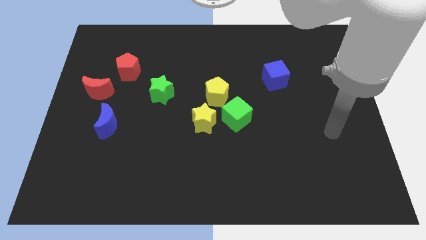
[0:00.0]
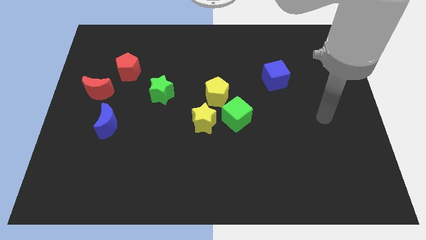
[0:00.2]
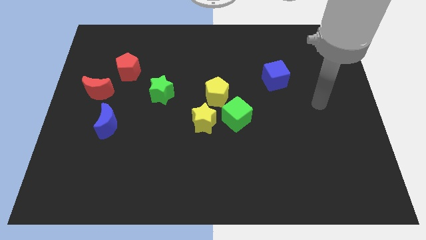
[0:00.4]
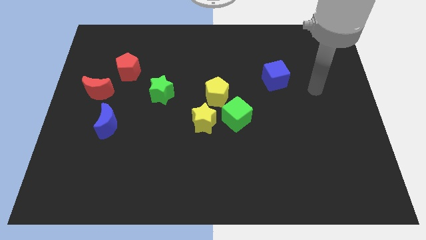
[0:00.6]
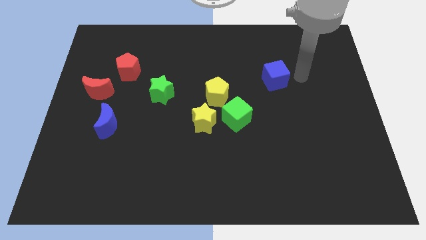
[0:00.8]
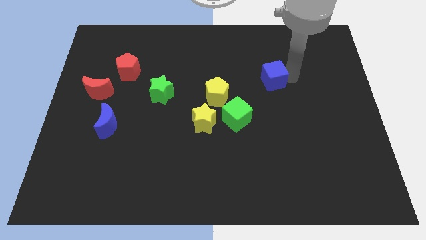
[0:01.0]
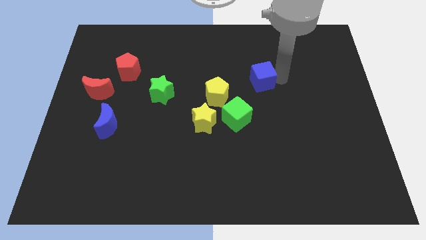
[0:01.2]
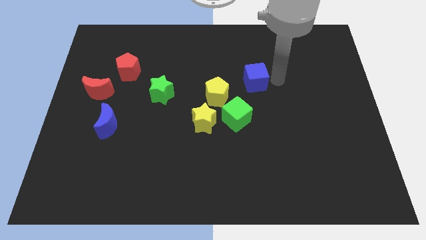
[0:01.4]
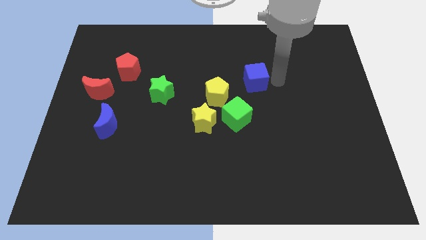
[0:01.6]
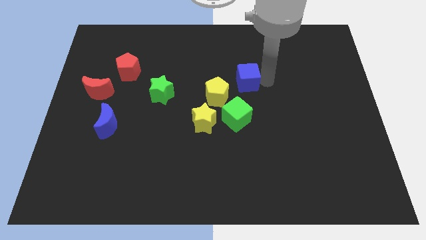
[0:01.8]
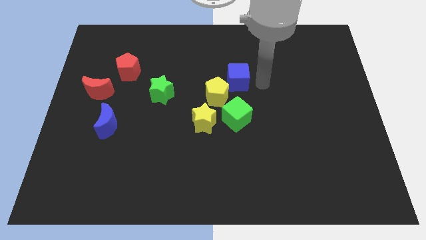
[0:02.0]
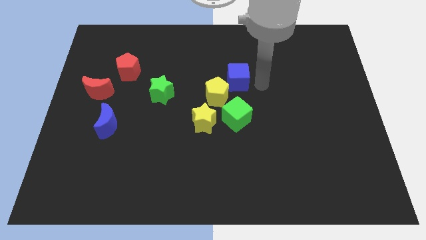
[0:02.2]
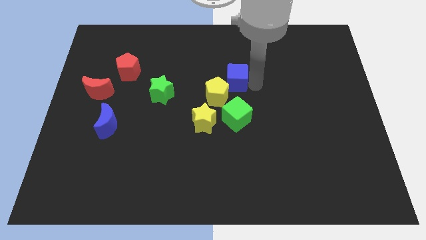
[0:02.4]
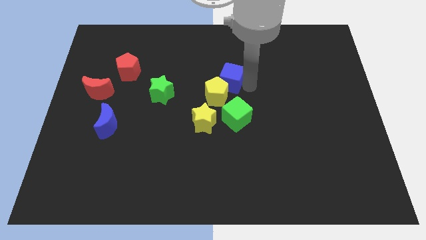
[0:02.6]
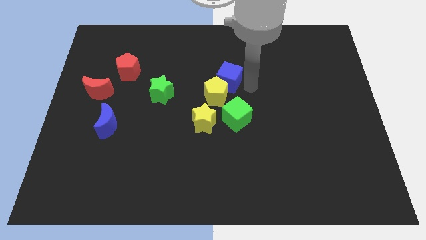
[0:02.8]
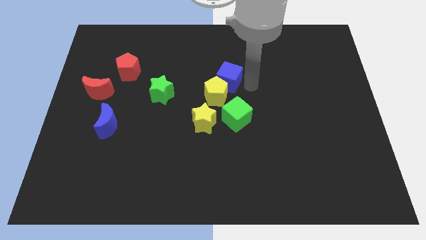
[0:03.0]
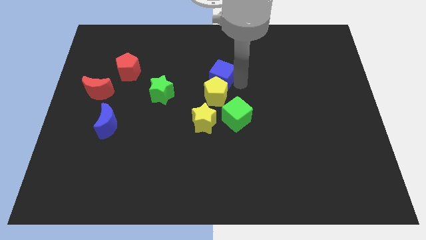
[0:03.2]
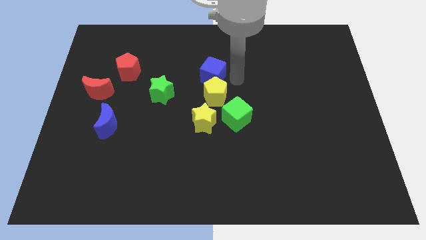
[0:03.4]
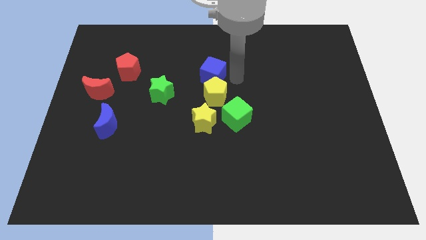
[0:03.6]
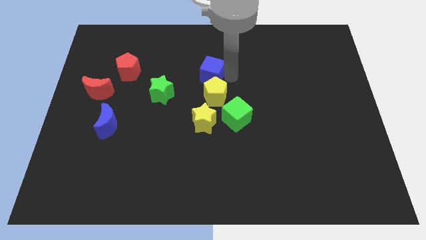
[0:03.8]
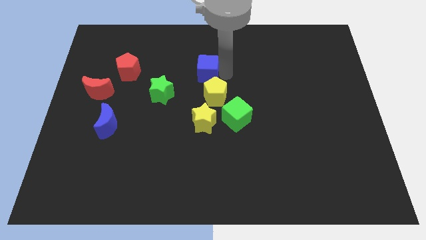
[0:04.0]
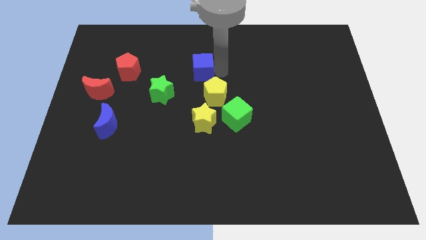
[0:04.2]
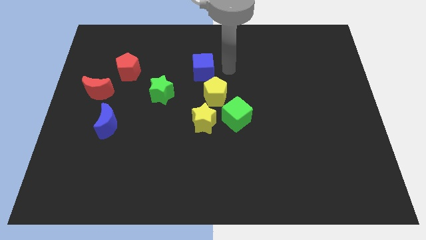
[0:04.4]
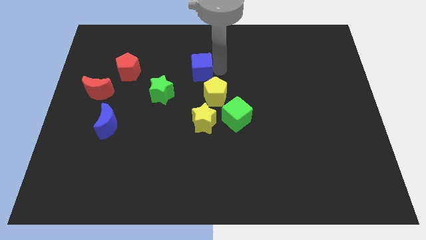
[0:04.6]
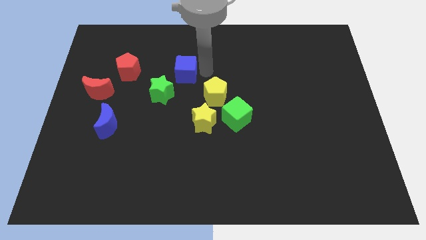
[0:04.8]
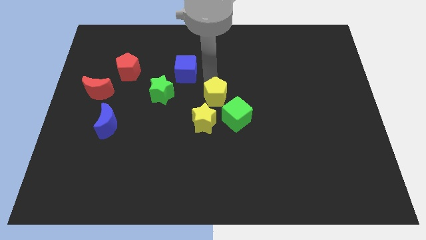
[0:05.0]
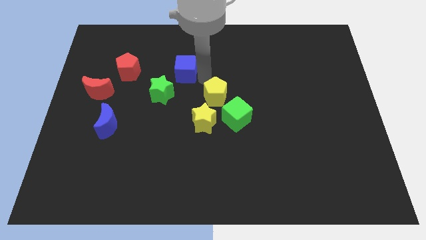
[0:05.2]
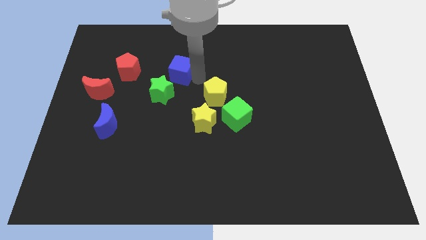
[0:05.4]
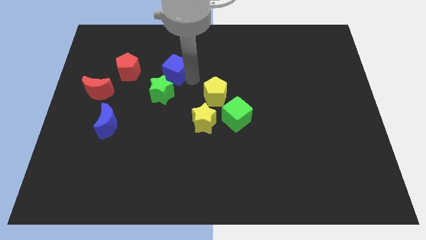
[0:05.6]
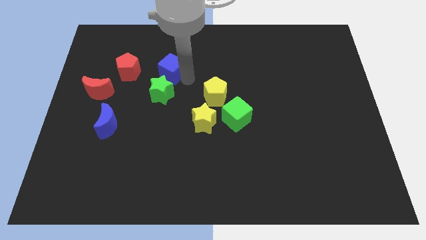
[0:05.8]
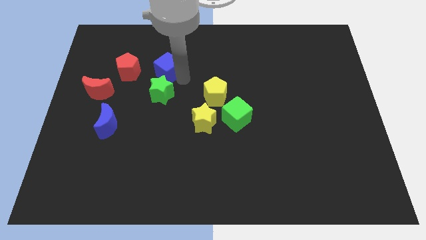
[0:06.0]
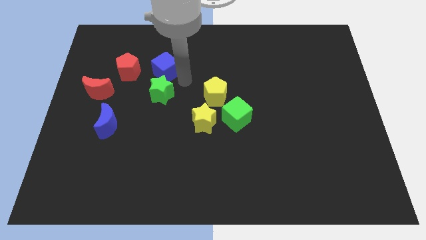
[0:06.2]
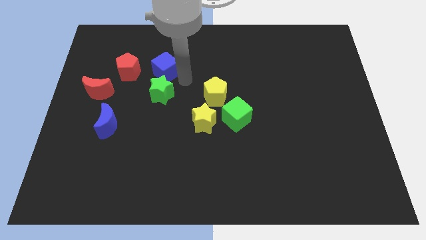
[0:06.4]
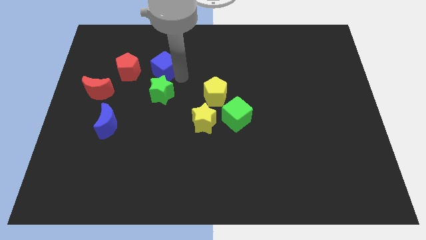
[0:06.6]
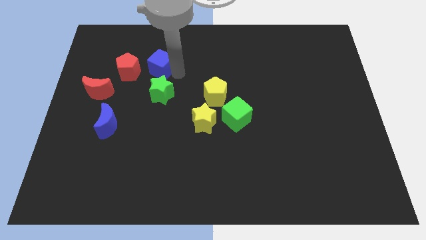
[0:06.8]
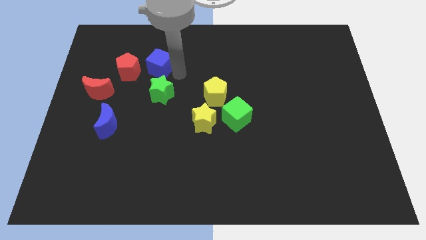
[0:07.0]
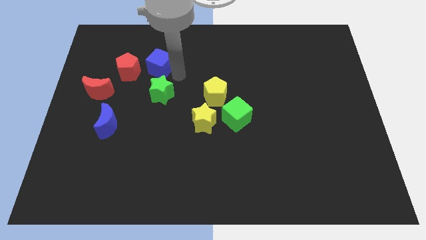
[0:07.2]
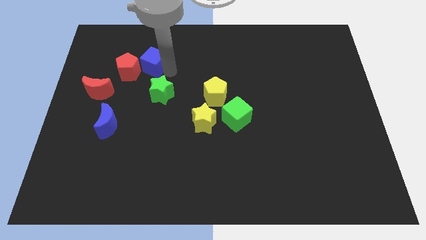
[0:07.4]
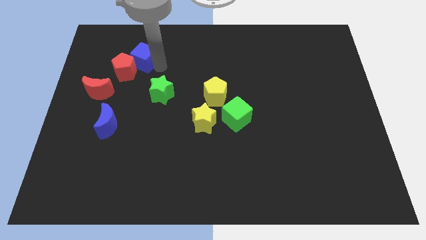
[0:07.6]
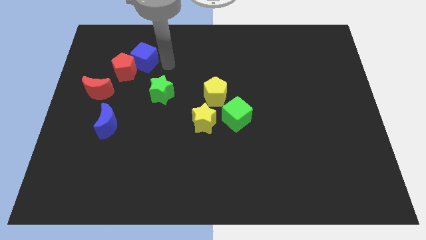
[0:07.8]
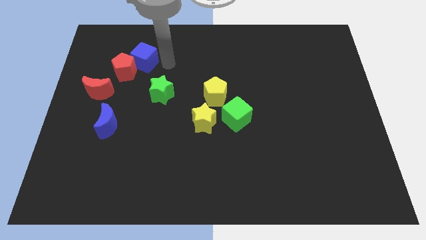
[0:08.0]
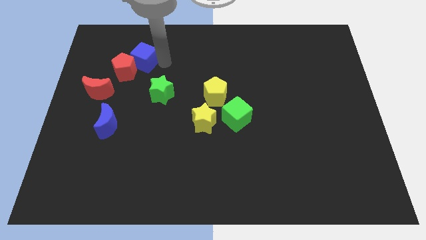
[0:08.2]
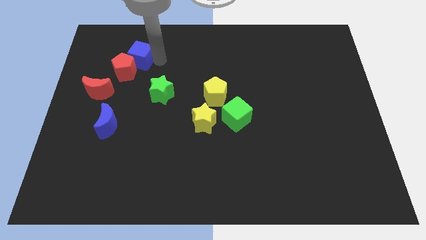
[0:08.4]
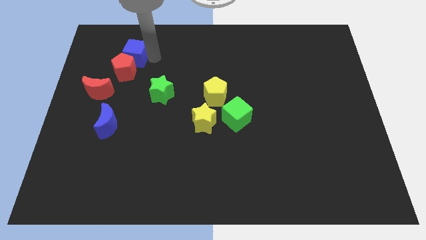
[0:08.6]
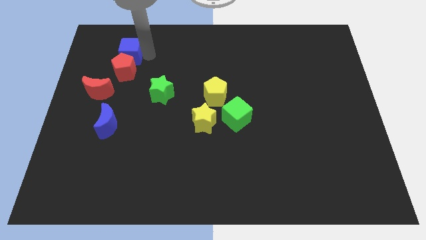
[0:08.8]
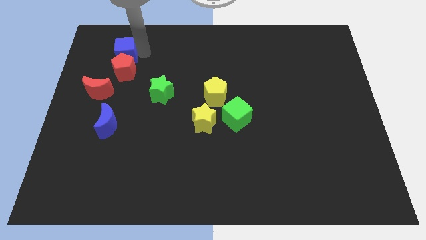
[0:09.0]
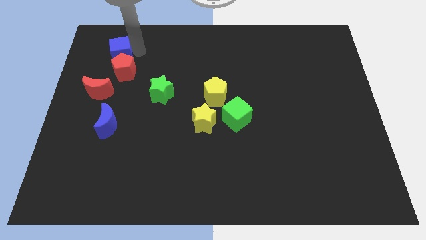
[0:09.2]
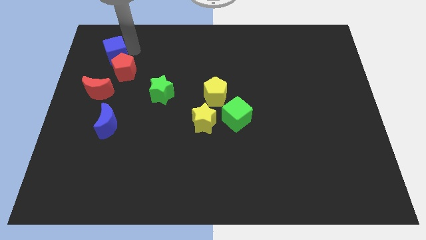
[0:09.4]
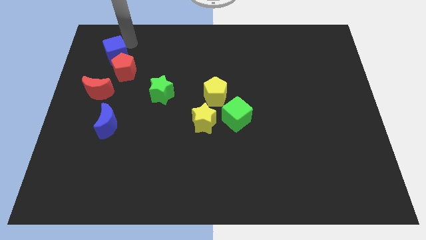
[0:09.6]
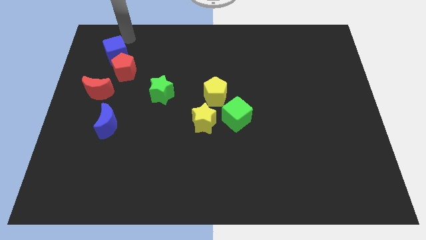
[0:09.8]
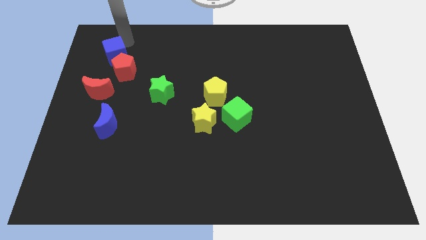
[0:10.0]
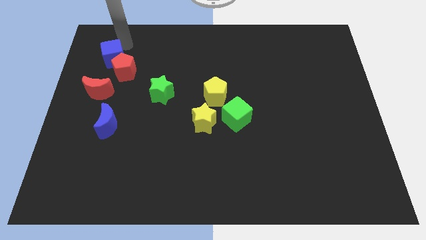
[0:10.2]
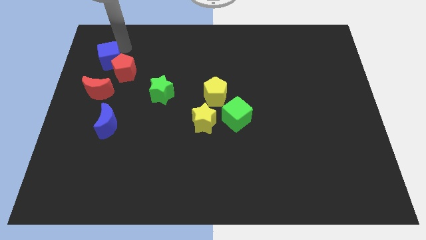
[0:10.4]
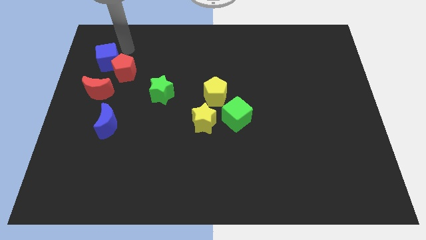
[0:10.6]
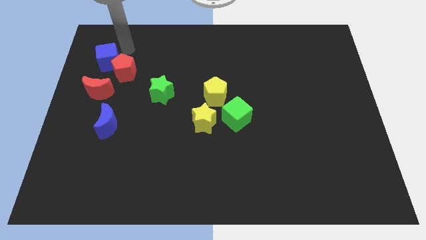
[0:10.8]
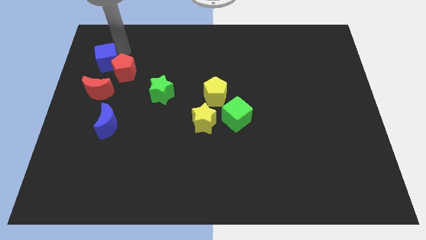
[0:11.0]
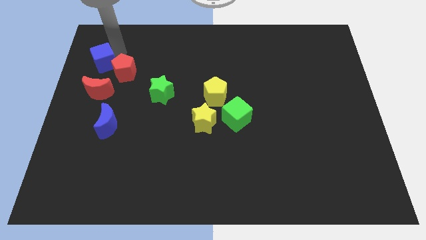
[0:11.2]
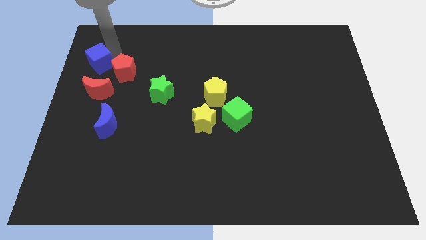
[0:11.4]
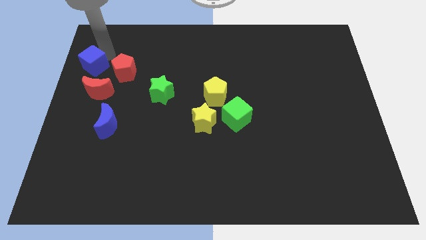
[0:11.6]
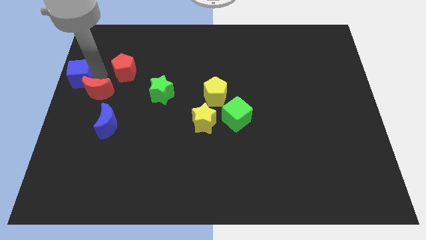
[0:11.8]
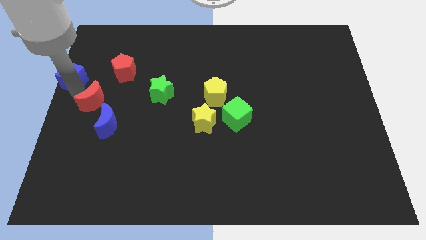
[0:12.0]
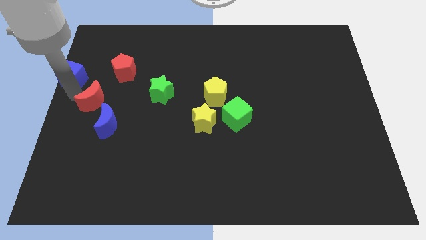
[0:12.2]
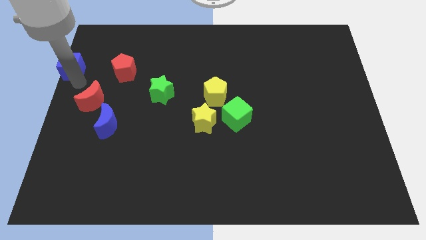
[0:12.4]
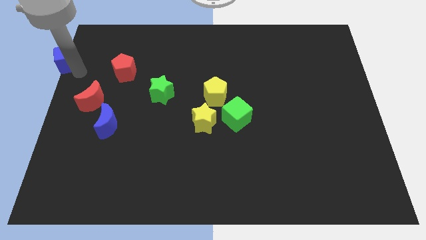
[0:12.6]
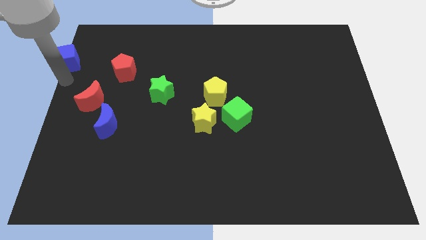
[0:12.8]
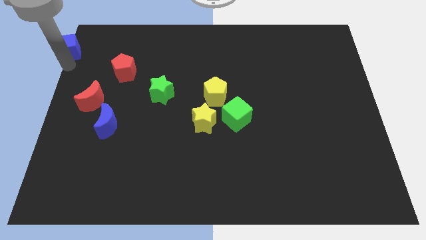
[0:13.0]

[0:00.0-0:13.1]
push the blue cube to the top left
